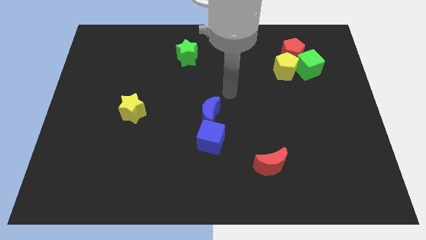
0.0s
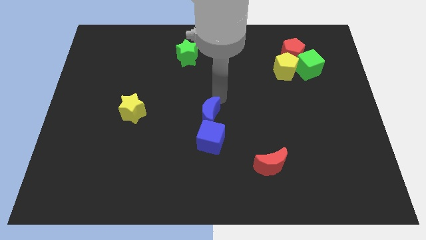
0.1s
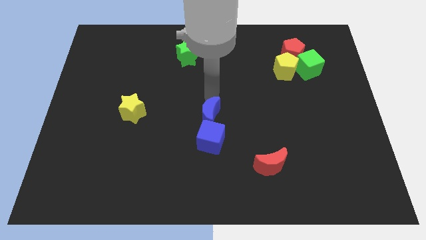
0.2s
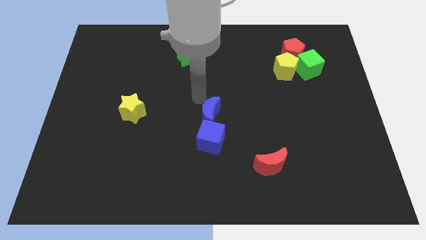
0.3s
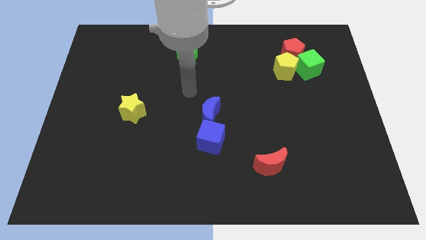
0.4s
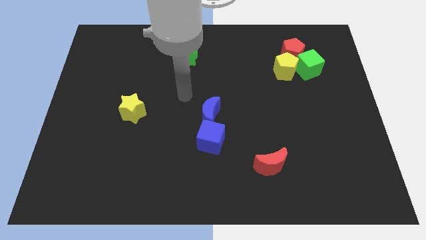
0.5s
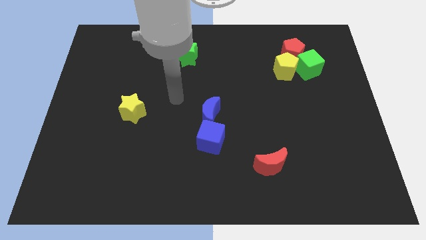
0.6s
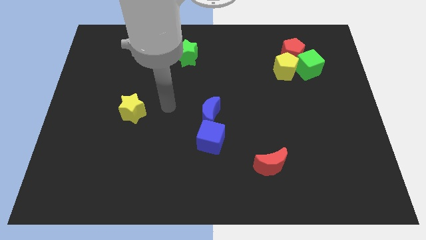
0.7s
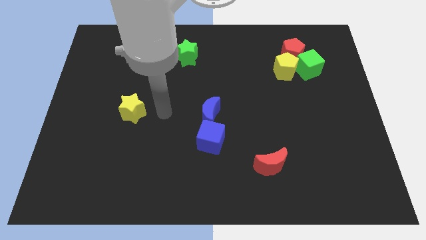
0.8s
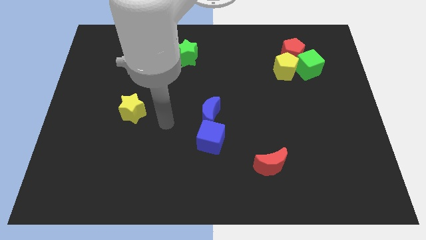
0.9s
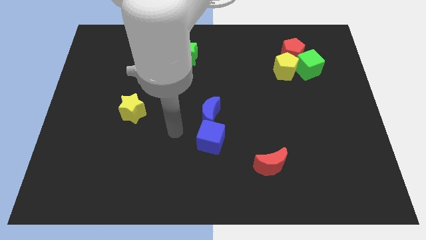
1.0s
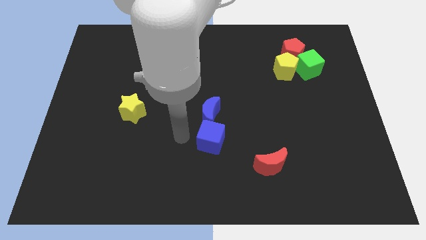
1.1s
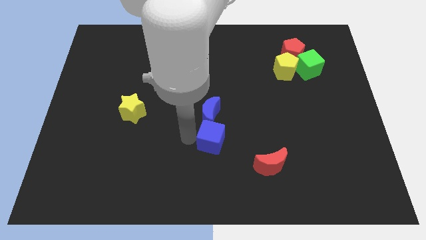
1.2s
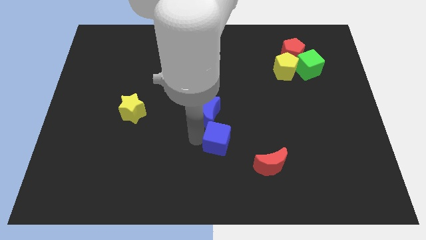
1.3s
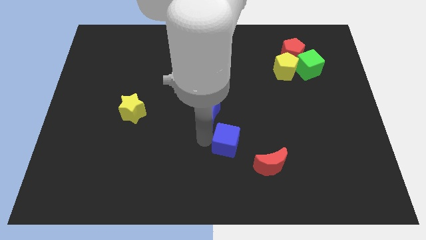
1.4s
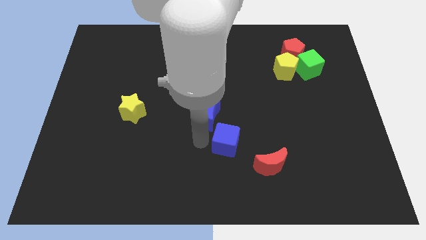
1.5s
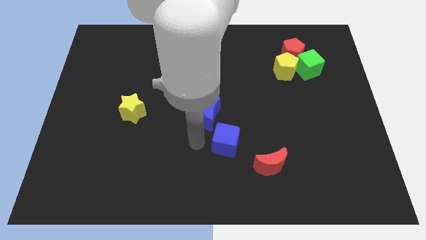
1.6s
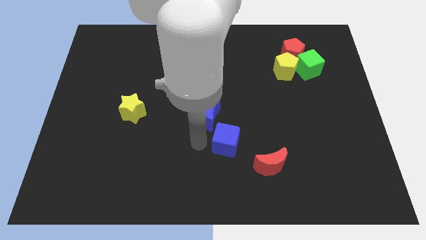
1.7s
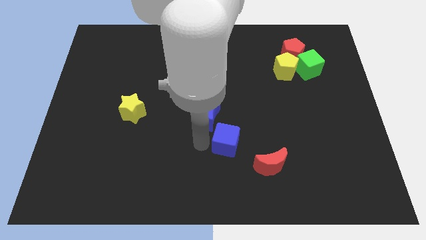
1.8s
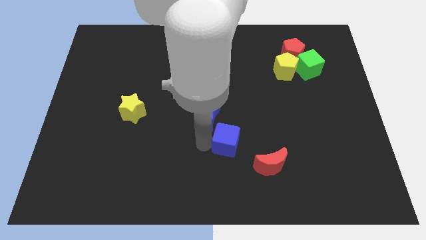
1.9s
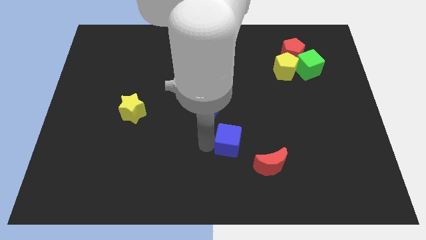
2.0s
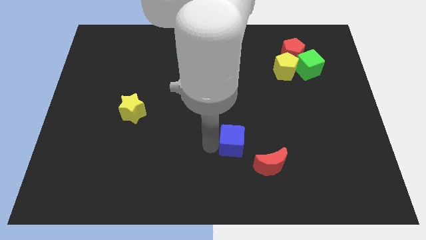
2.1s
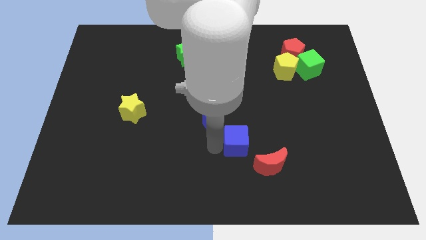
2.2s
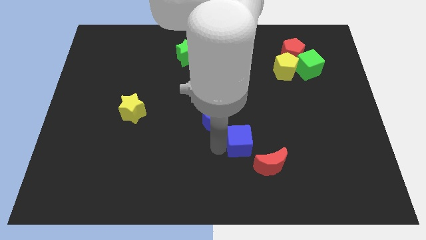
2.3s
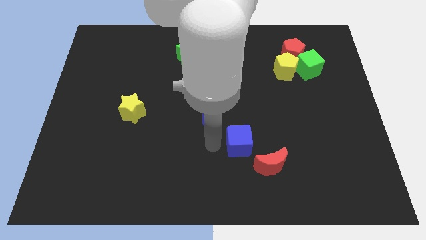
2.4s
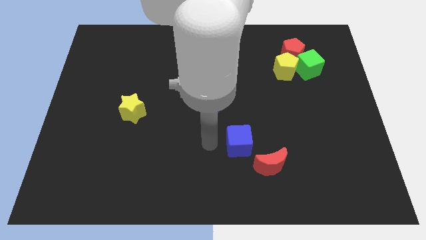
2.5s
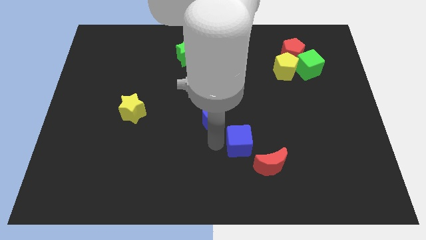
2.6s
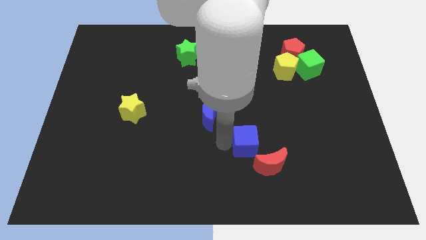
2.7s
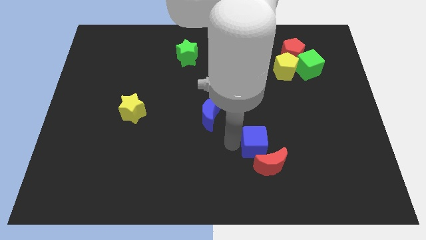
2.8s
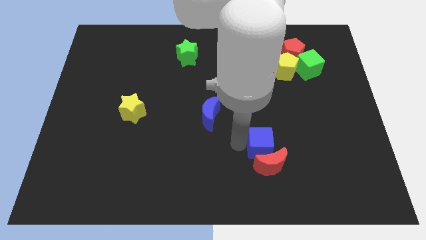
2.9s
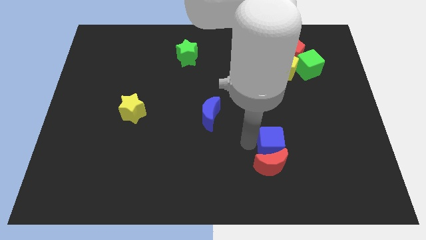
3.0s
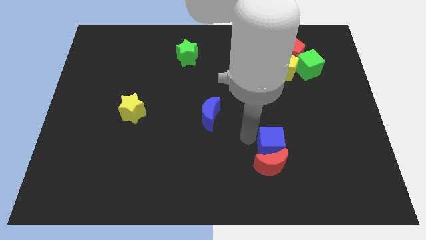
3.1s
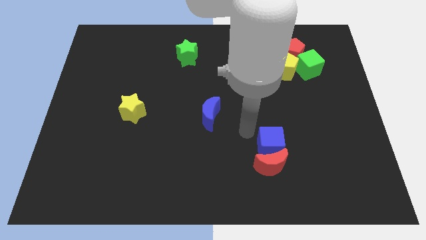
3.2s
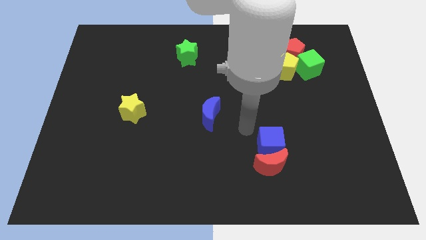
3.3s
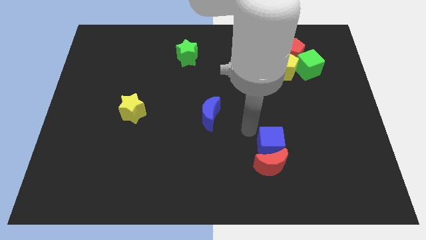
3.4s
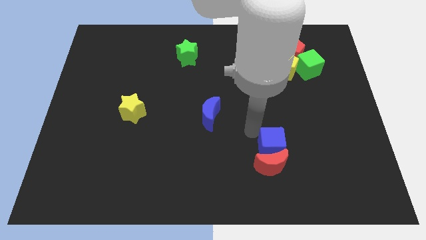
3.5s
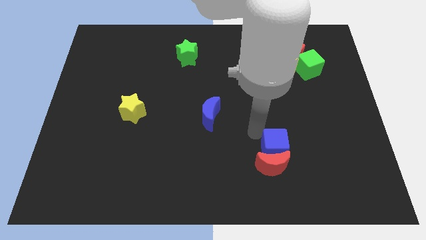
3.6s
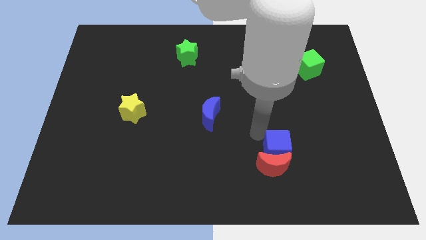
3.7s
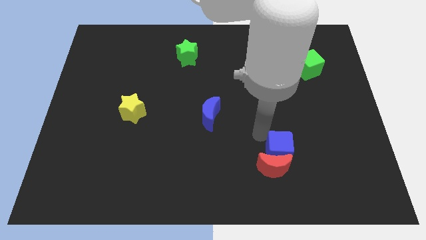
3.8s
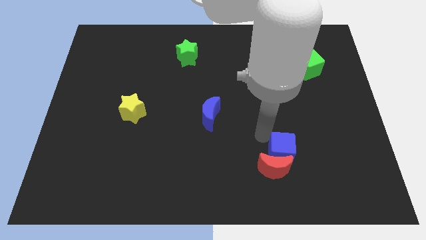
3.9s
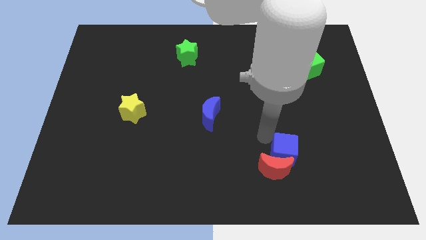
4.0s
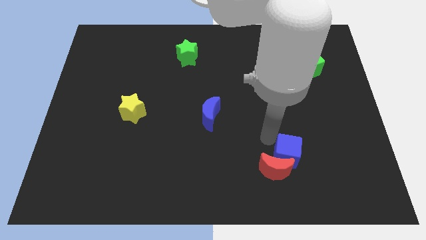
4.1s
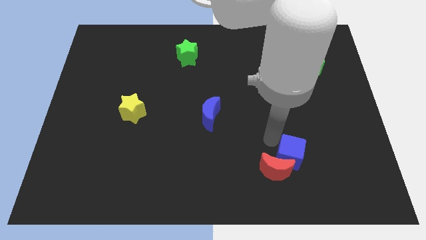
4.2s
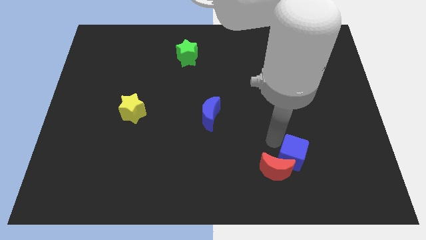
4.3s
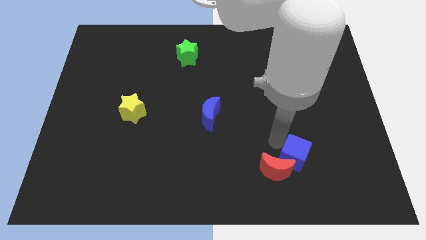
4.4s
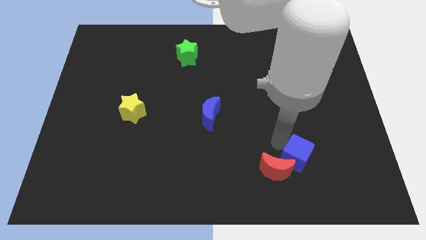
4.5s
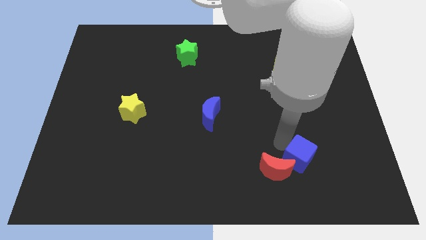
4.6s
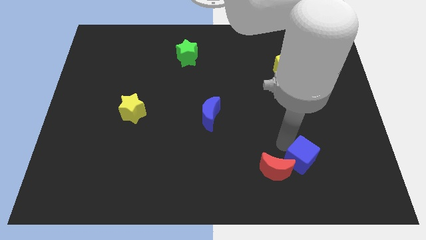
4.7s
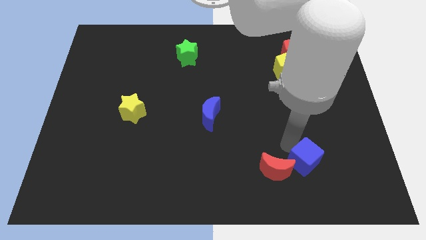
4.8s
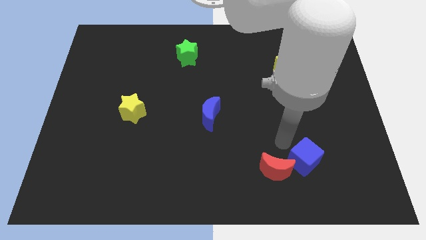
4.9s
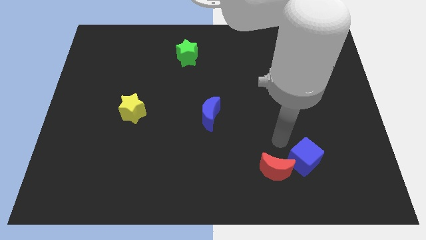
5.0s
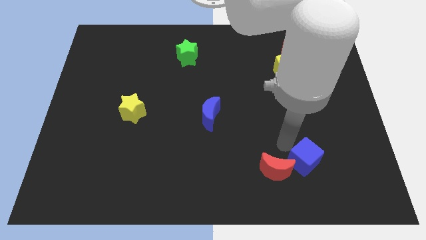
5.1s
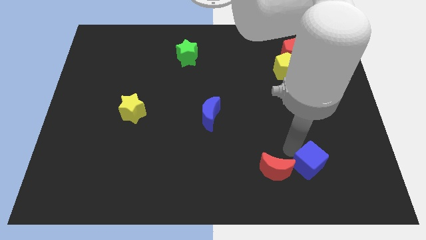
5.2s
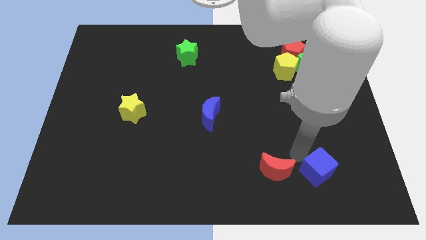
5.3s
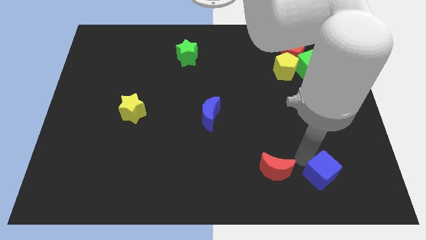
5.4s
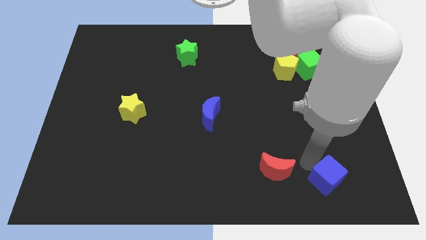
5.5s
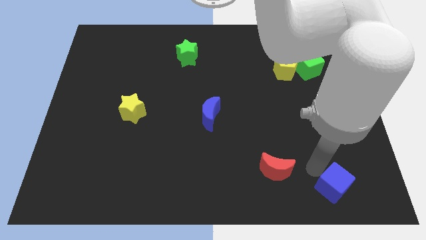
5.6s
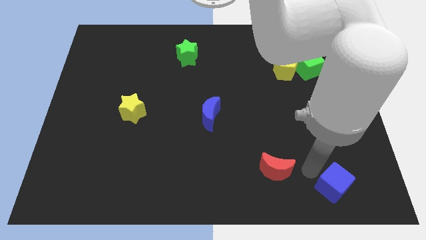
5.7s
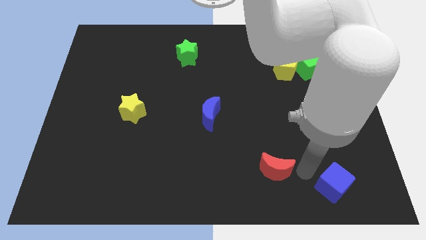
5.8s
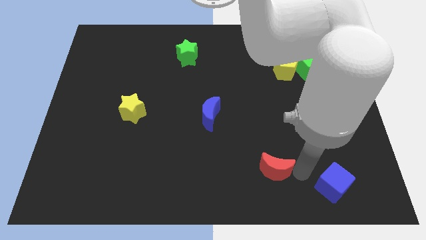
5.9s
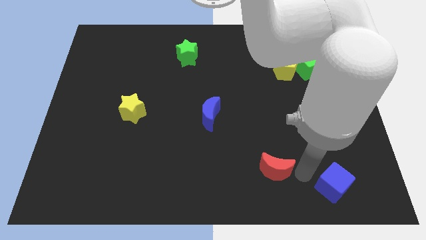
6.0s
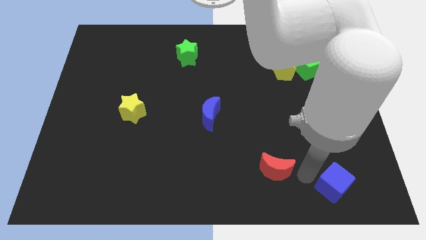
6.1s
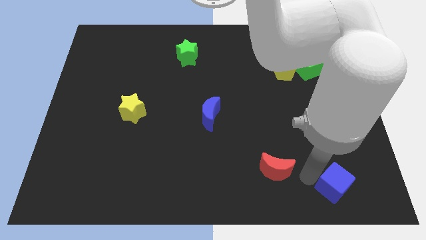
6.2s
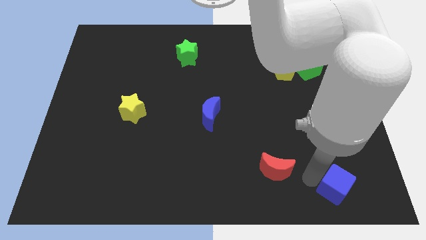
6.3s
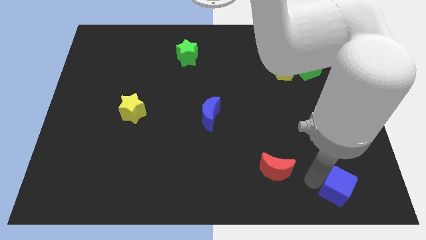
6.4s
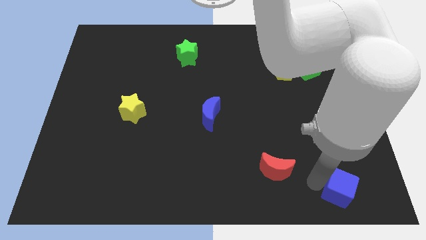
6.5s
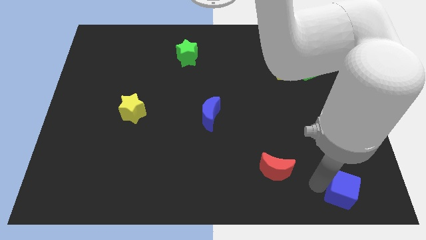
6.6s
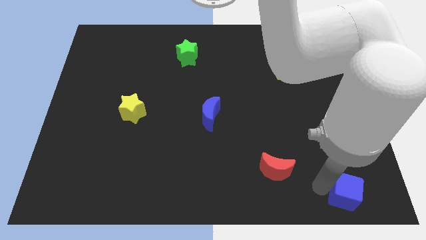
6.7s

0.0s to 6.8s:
push the blue cube to the bottom right corner

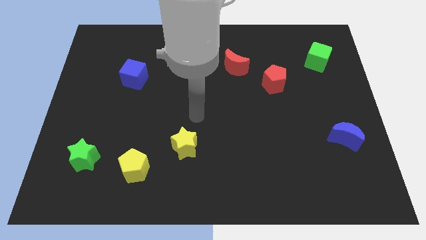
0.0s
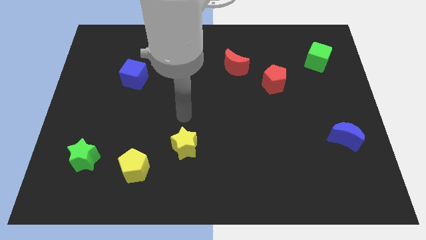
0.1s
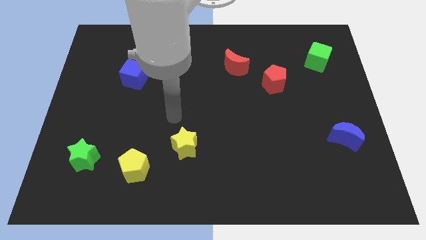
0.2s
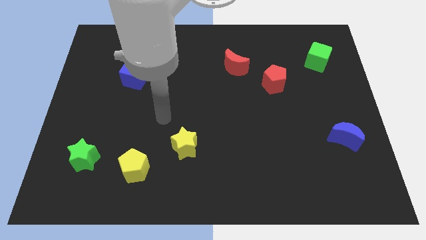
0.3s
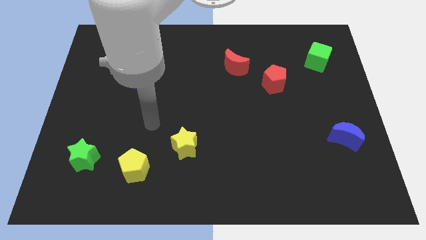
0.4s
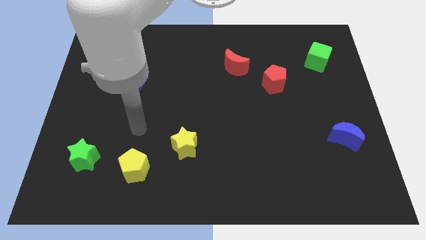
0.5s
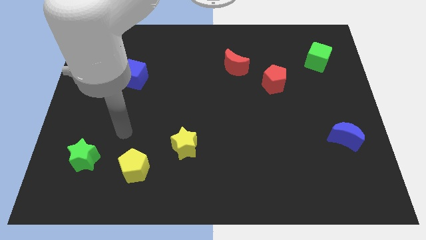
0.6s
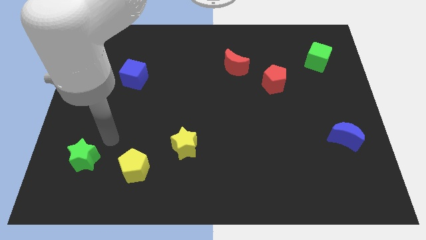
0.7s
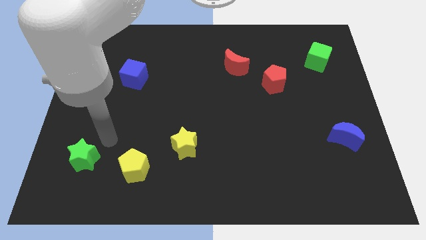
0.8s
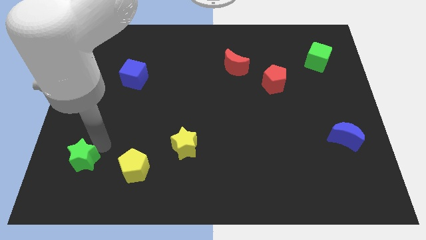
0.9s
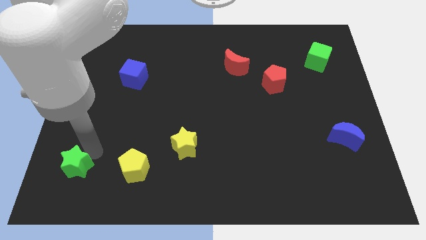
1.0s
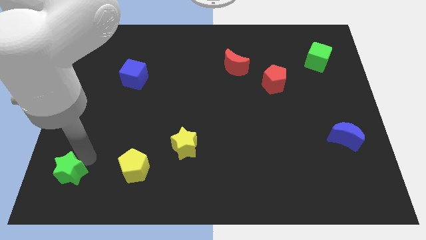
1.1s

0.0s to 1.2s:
slide the green star to the bottom left of the board
